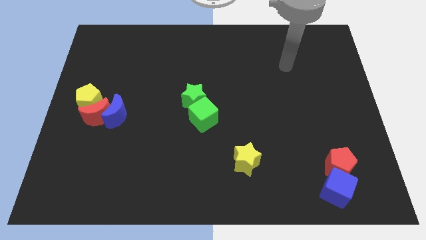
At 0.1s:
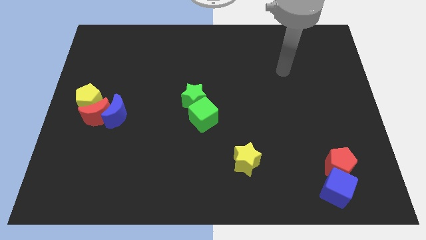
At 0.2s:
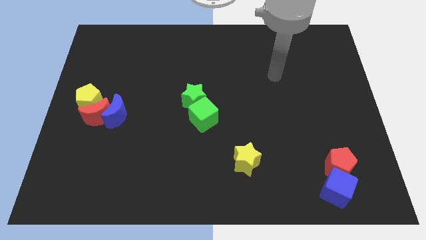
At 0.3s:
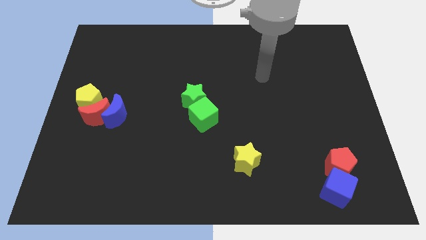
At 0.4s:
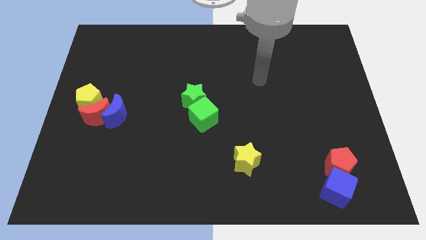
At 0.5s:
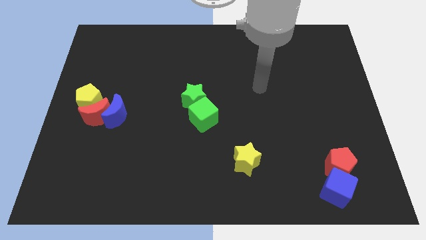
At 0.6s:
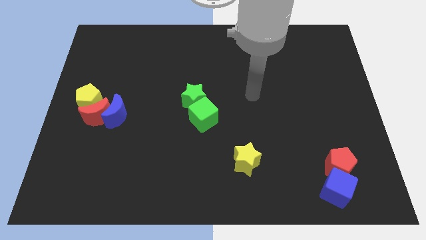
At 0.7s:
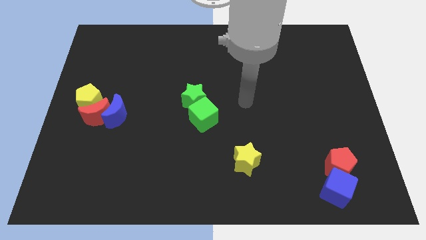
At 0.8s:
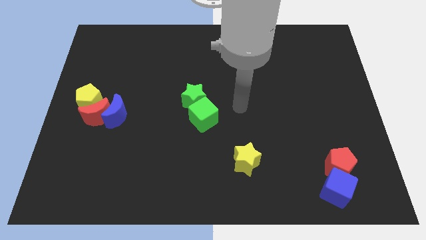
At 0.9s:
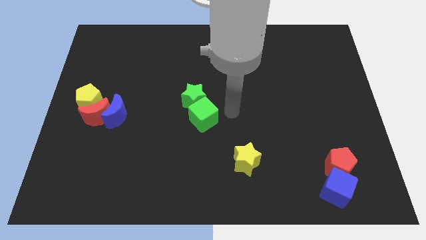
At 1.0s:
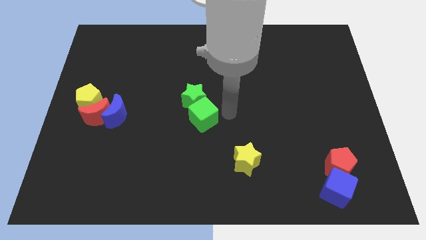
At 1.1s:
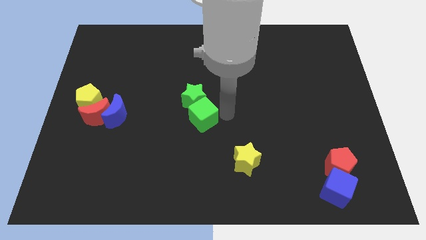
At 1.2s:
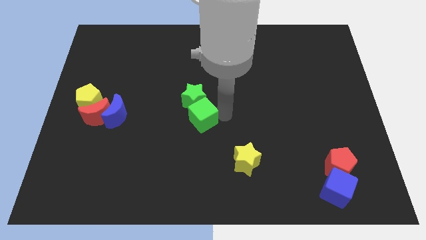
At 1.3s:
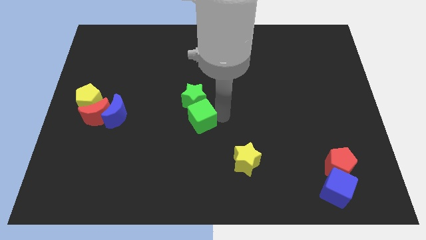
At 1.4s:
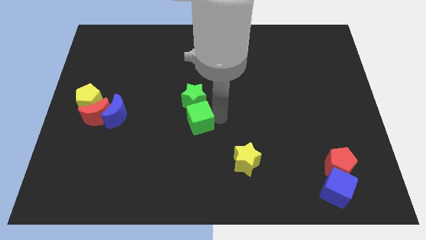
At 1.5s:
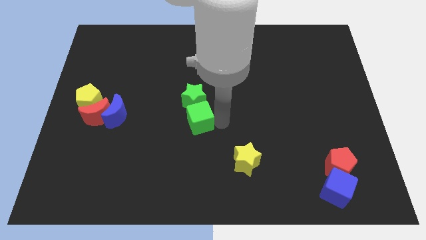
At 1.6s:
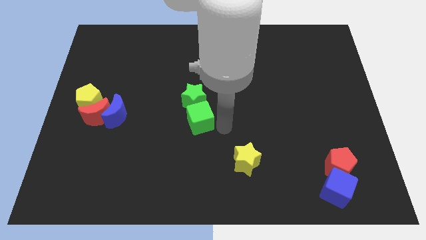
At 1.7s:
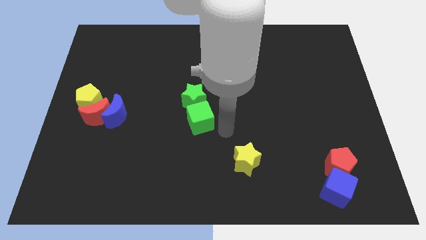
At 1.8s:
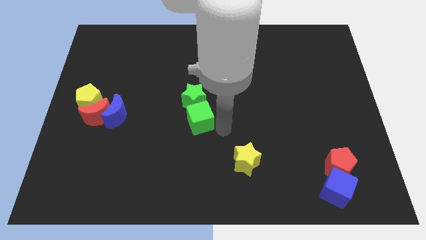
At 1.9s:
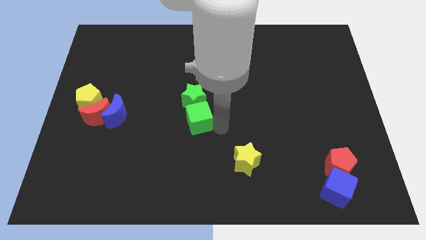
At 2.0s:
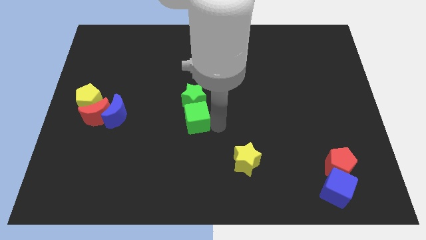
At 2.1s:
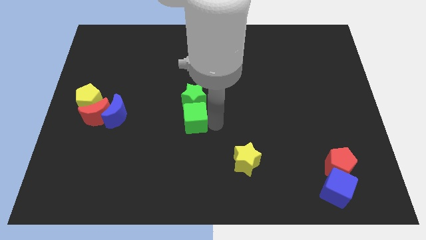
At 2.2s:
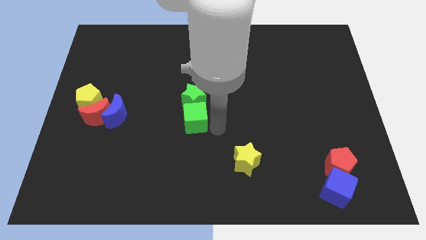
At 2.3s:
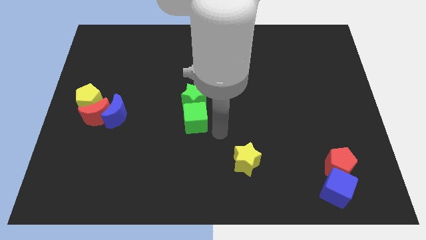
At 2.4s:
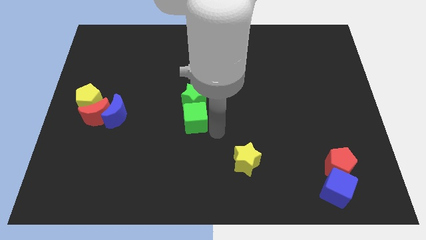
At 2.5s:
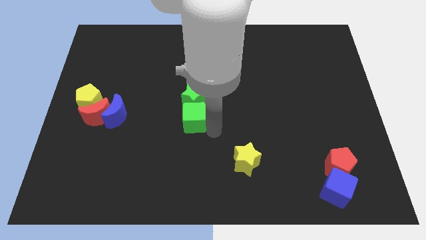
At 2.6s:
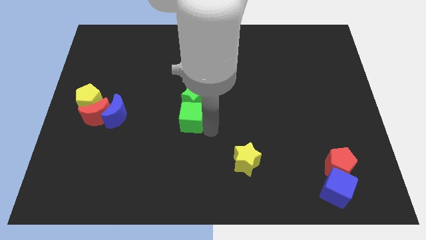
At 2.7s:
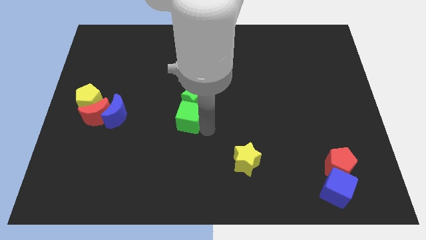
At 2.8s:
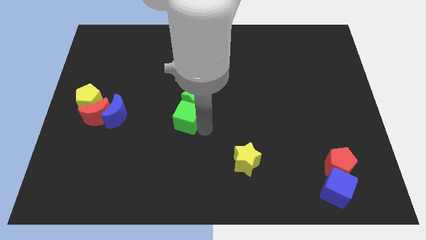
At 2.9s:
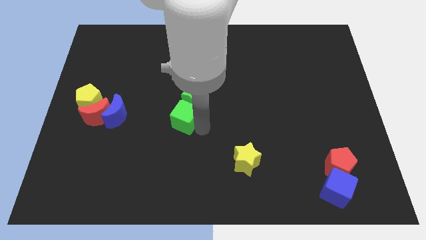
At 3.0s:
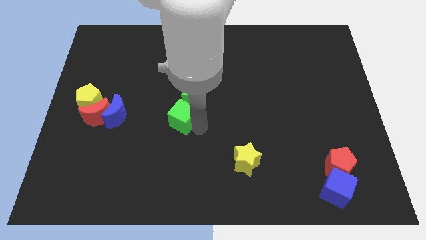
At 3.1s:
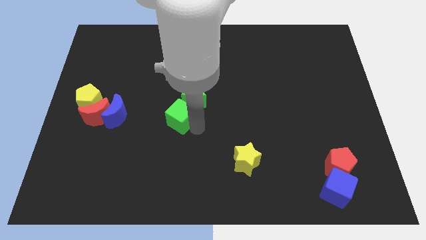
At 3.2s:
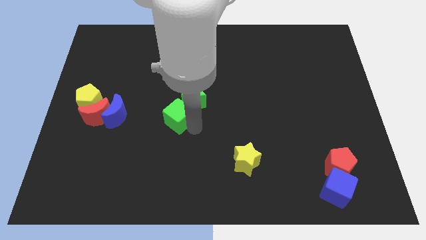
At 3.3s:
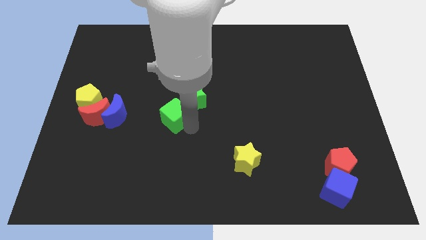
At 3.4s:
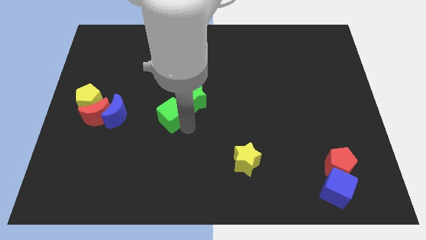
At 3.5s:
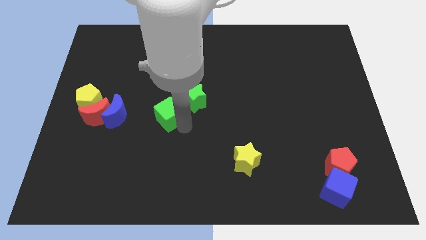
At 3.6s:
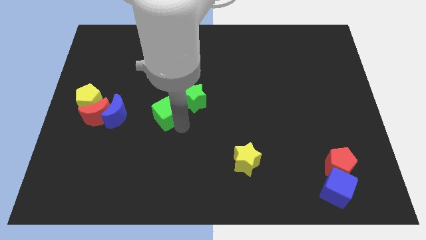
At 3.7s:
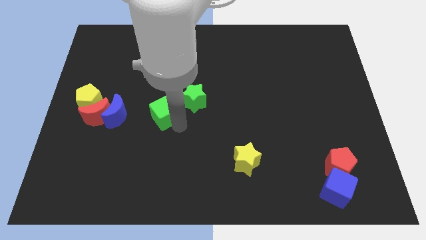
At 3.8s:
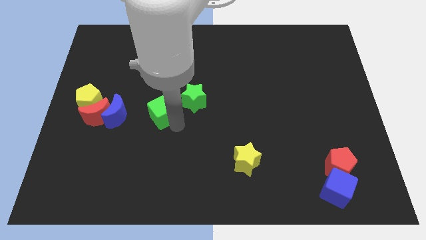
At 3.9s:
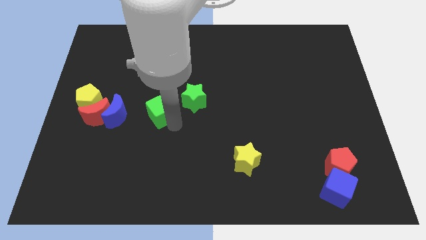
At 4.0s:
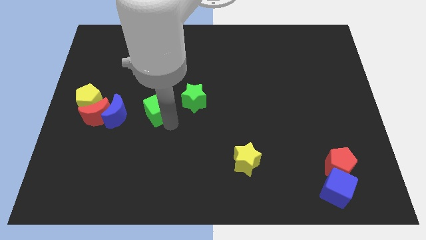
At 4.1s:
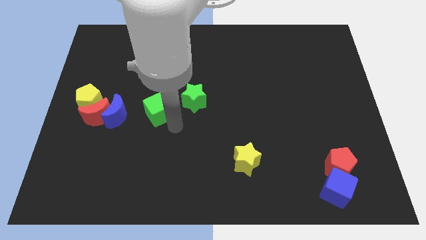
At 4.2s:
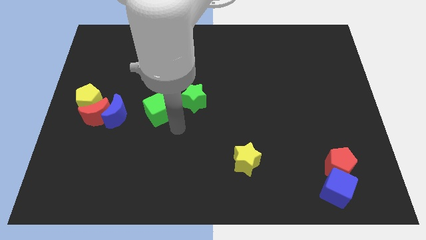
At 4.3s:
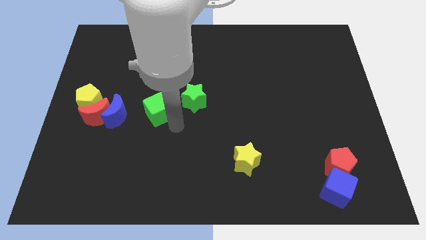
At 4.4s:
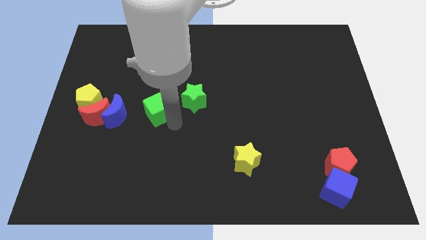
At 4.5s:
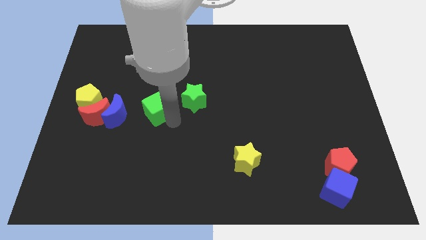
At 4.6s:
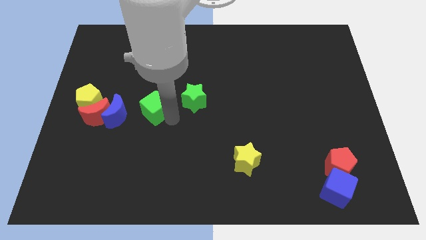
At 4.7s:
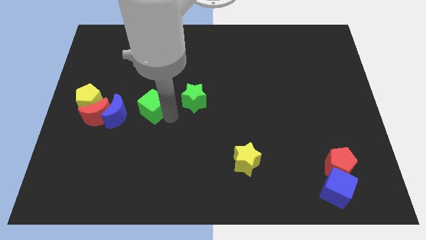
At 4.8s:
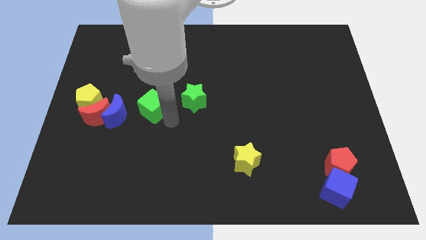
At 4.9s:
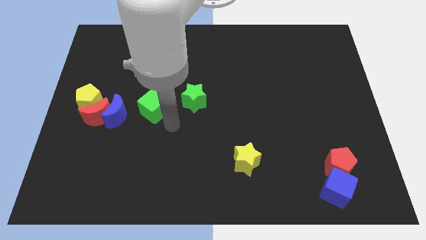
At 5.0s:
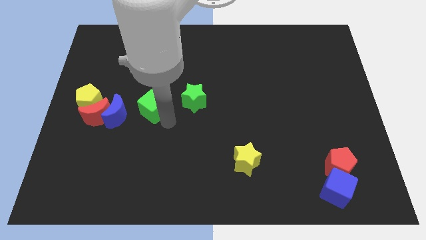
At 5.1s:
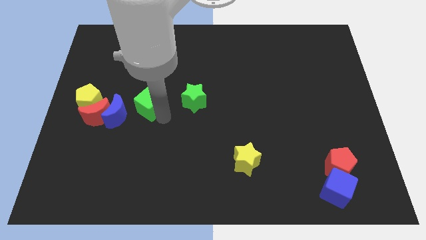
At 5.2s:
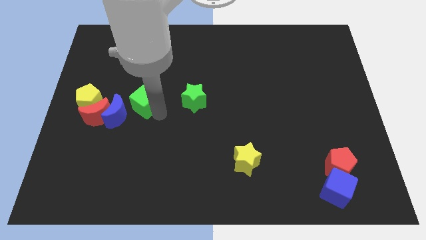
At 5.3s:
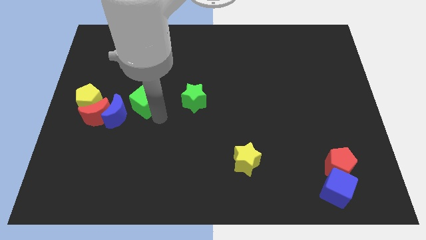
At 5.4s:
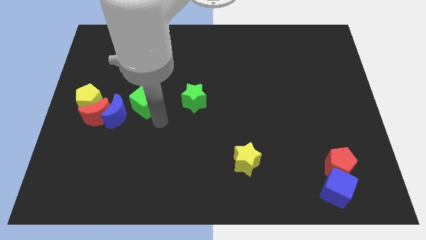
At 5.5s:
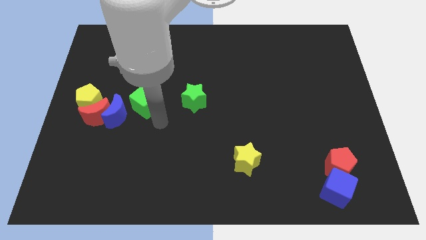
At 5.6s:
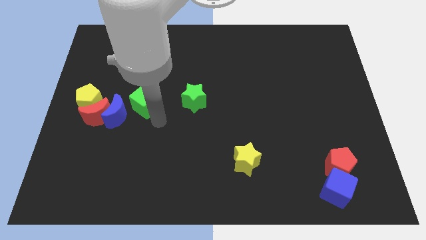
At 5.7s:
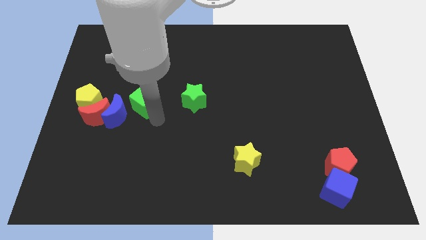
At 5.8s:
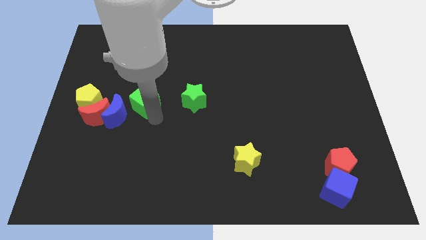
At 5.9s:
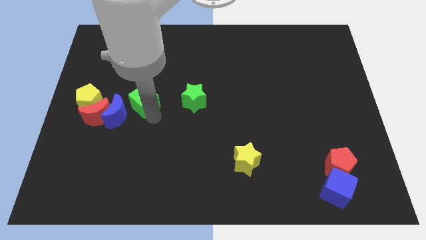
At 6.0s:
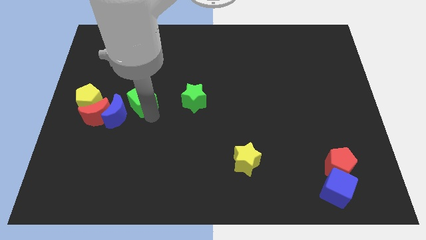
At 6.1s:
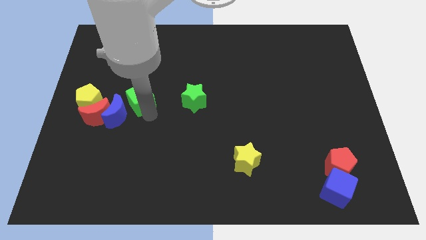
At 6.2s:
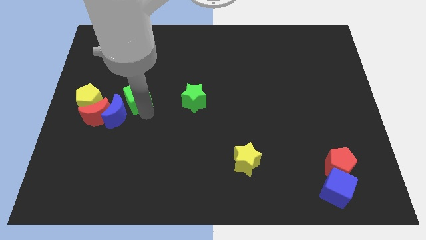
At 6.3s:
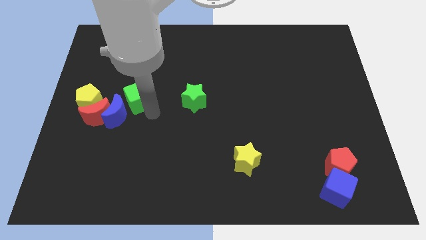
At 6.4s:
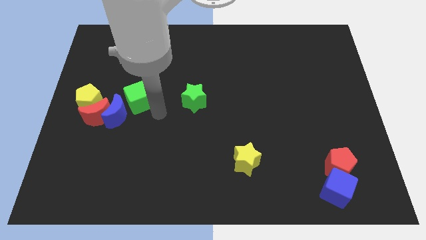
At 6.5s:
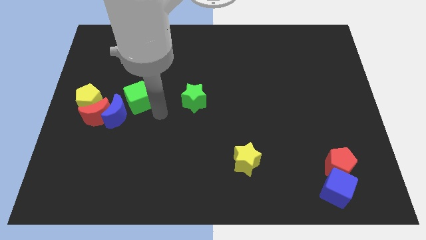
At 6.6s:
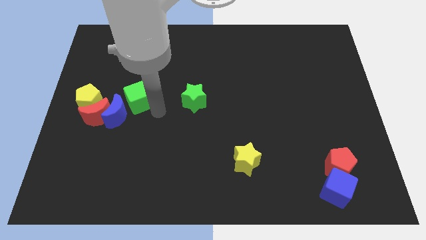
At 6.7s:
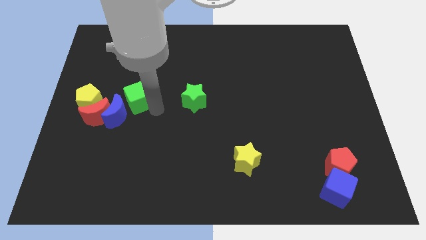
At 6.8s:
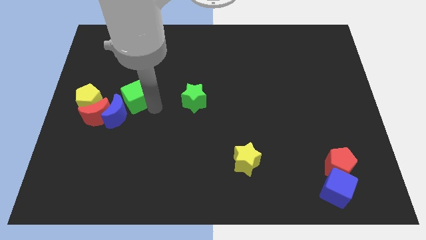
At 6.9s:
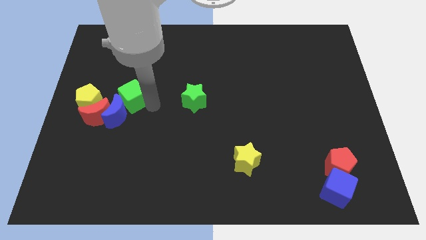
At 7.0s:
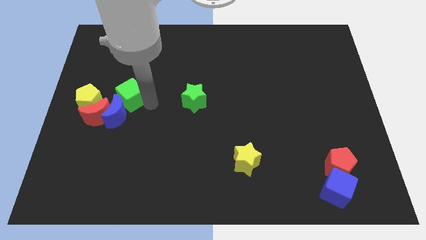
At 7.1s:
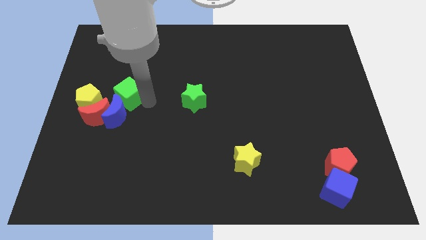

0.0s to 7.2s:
slide the green cube to the top right side of the yellow pentagon

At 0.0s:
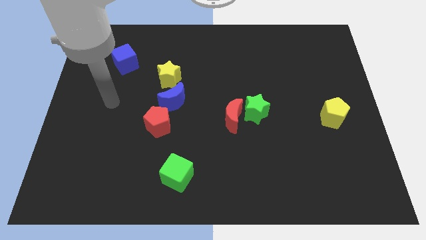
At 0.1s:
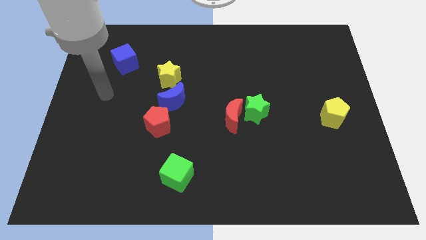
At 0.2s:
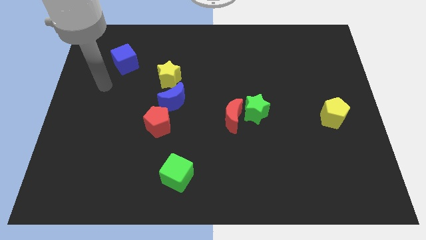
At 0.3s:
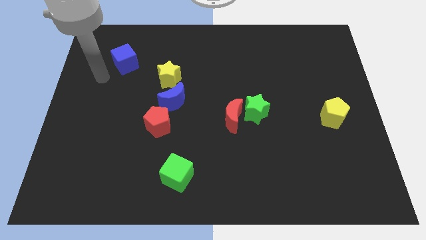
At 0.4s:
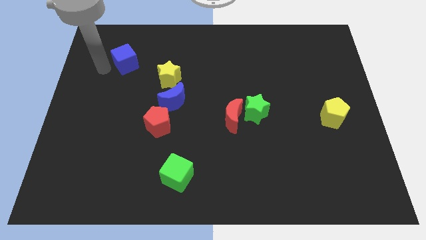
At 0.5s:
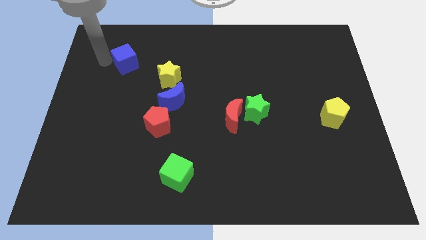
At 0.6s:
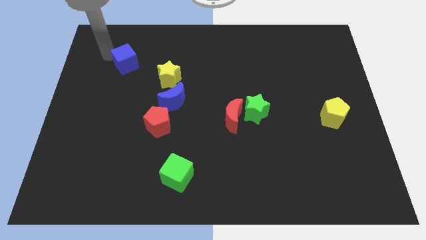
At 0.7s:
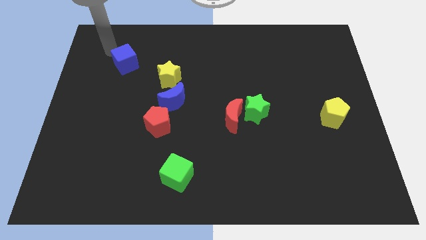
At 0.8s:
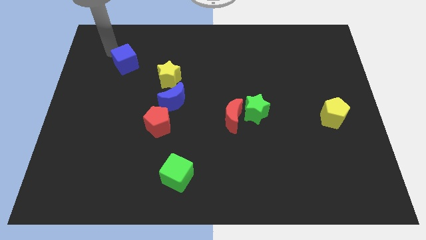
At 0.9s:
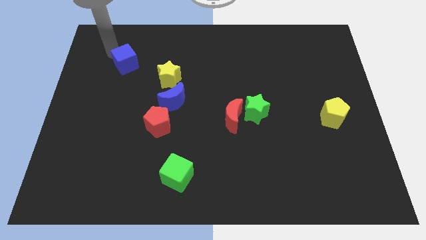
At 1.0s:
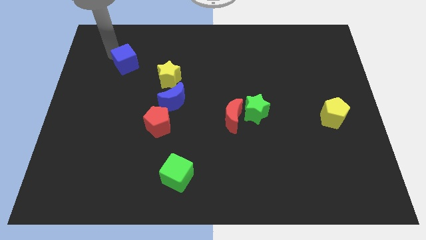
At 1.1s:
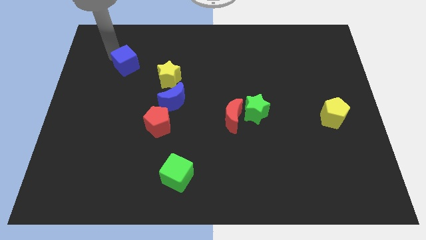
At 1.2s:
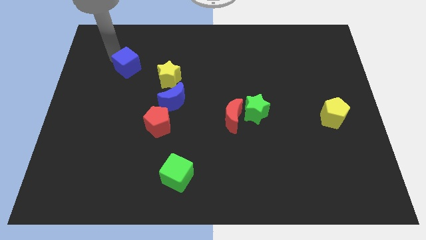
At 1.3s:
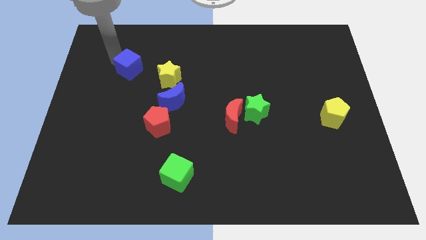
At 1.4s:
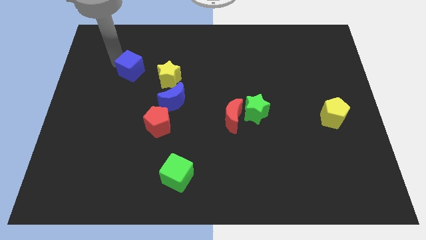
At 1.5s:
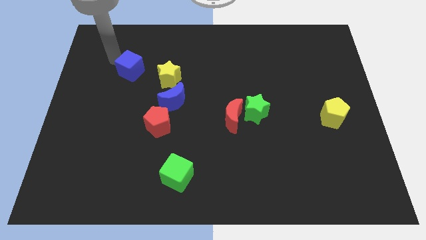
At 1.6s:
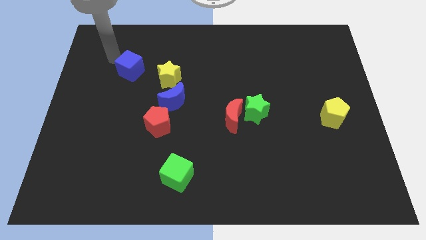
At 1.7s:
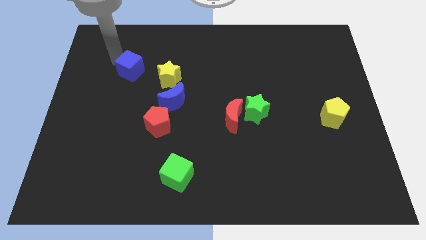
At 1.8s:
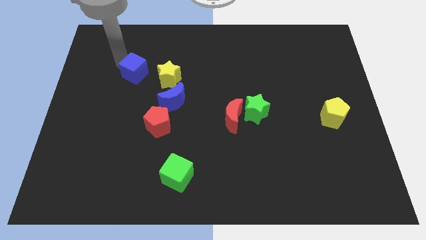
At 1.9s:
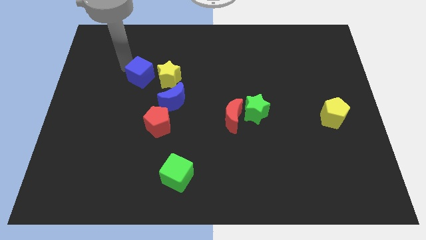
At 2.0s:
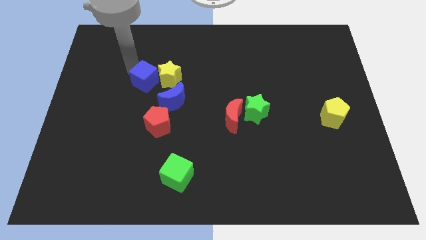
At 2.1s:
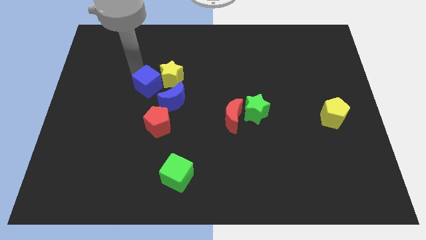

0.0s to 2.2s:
push the blue cube to the top of the red pentagon
